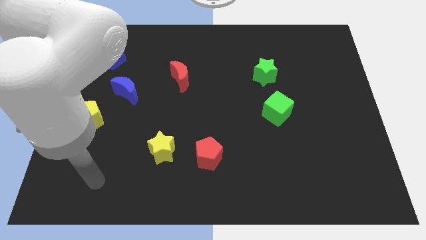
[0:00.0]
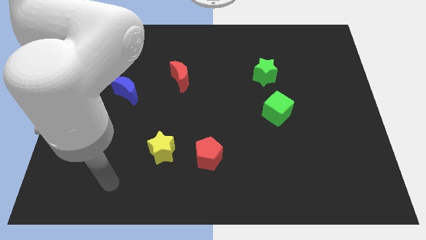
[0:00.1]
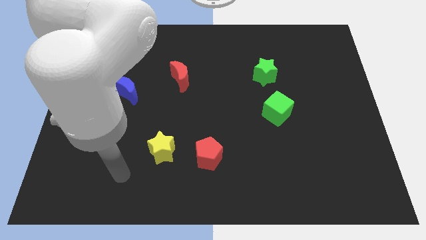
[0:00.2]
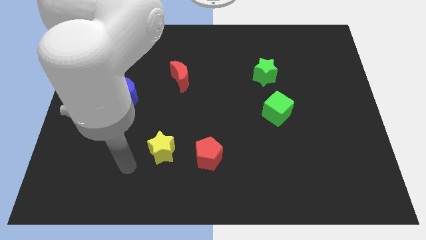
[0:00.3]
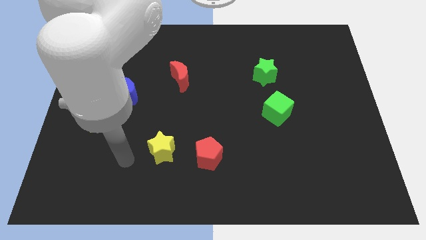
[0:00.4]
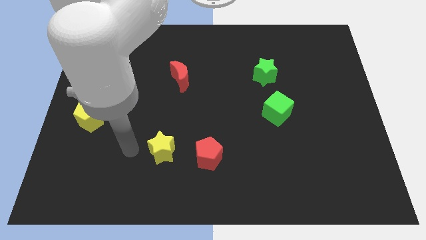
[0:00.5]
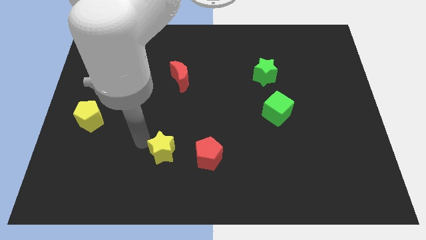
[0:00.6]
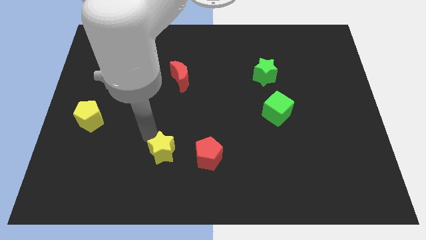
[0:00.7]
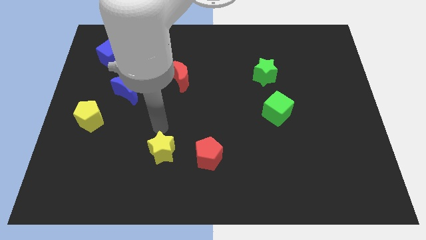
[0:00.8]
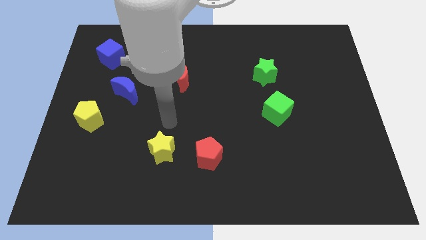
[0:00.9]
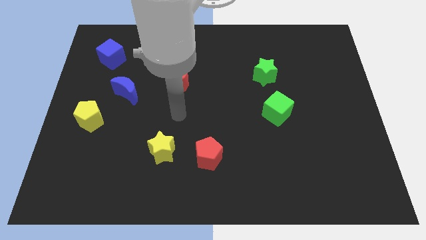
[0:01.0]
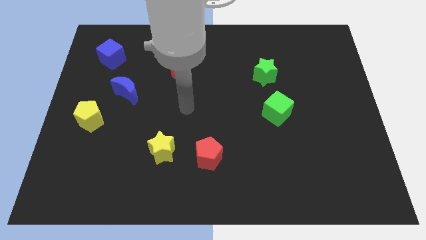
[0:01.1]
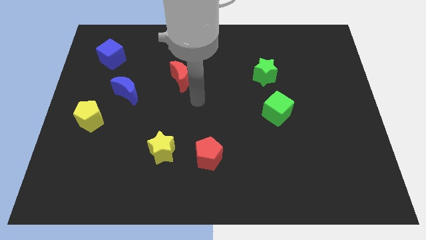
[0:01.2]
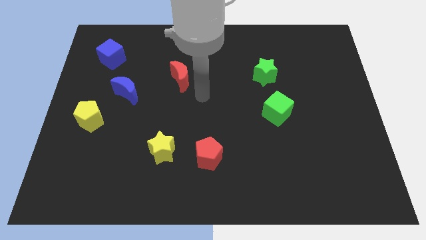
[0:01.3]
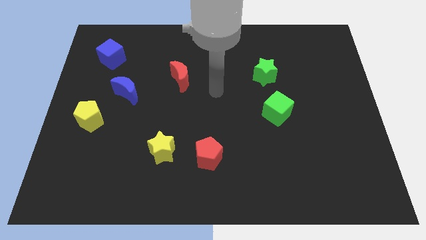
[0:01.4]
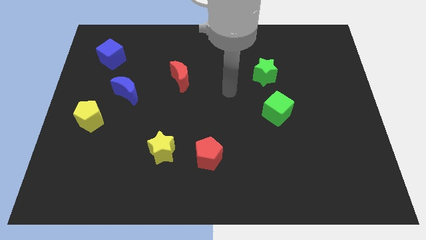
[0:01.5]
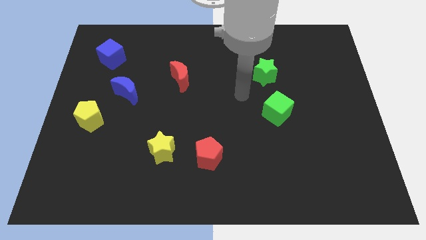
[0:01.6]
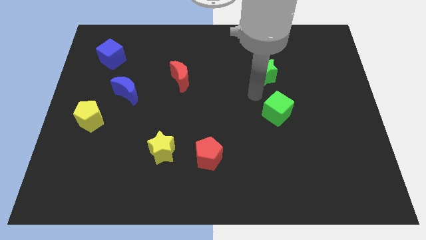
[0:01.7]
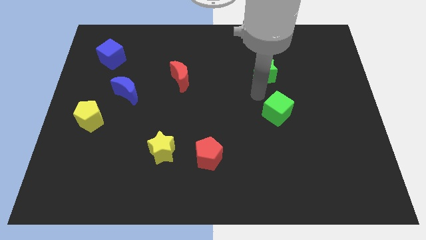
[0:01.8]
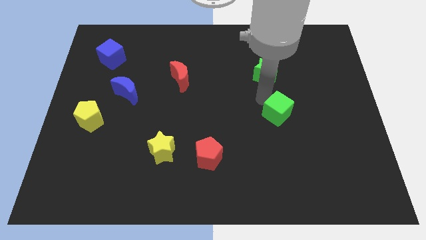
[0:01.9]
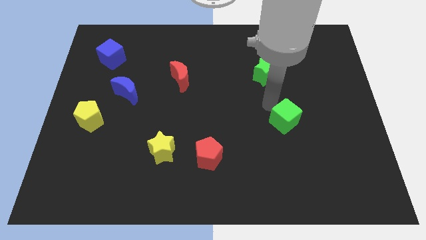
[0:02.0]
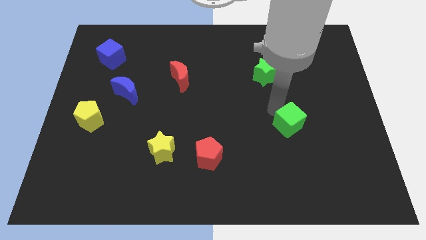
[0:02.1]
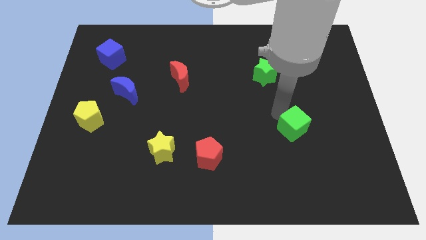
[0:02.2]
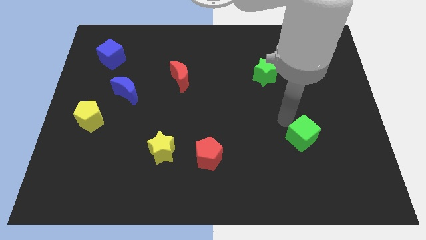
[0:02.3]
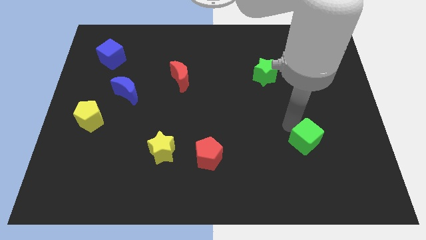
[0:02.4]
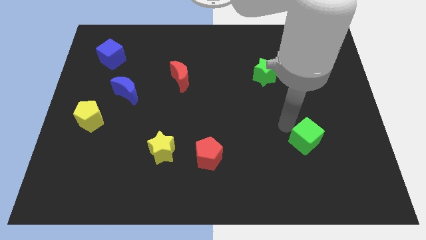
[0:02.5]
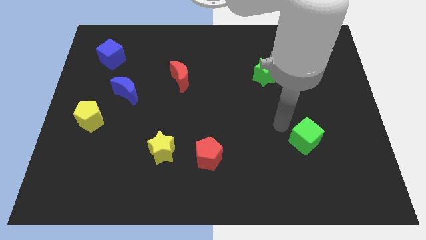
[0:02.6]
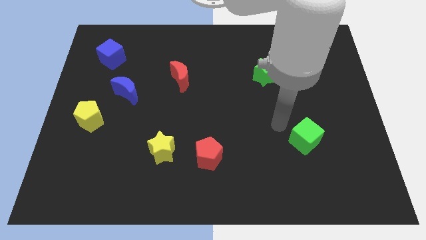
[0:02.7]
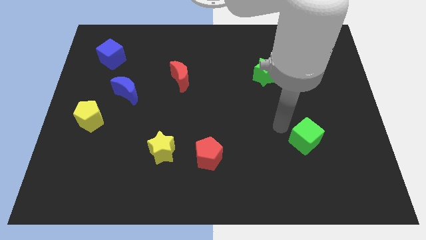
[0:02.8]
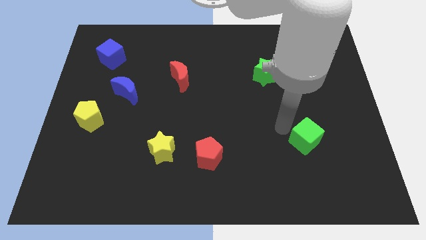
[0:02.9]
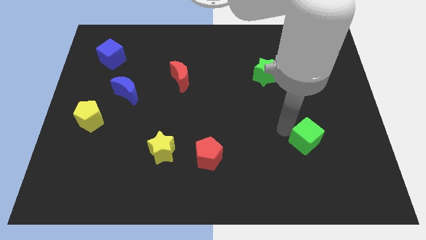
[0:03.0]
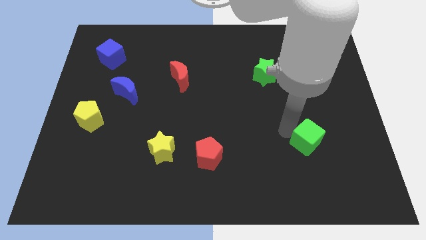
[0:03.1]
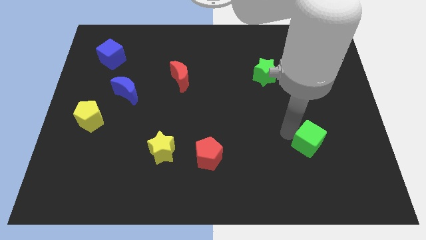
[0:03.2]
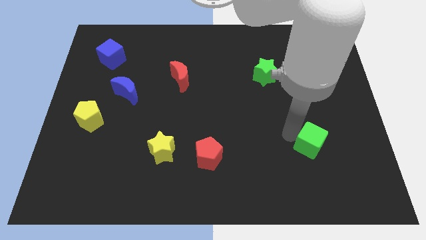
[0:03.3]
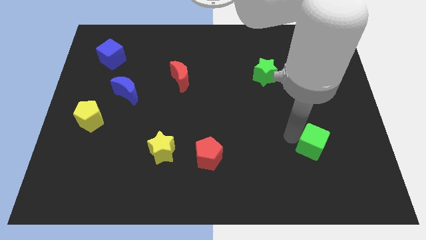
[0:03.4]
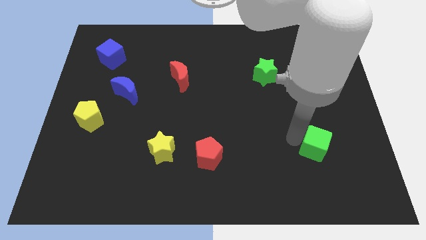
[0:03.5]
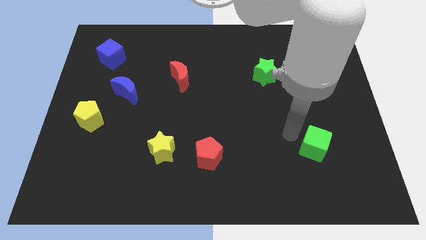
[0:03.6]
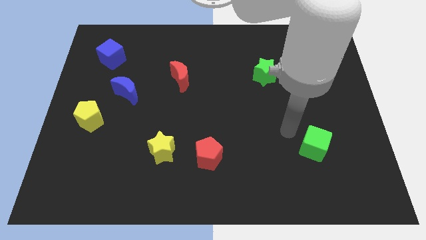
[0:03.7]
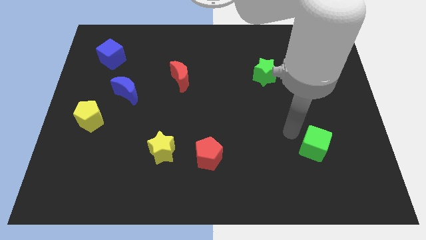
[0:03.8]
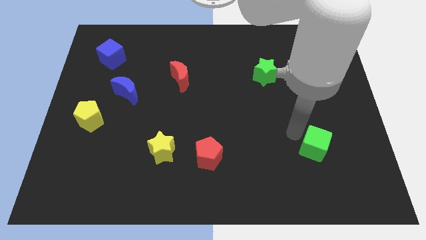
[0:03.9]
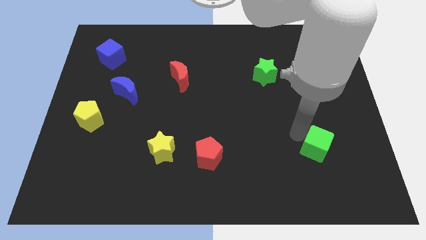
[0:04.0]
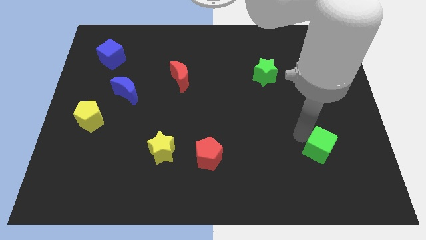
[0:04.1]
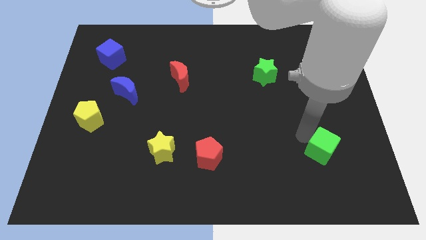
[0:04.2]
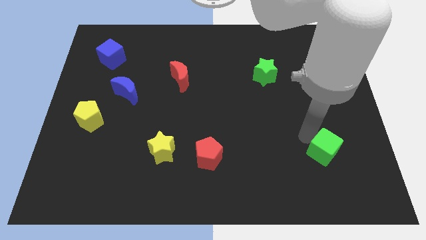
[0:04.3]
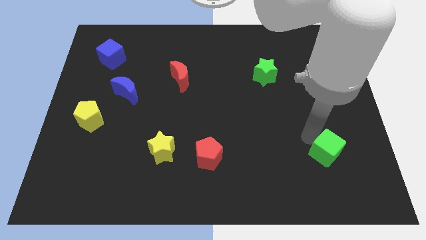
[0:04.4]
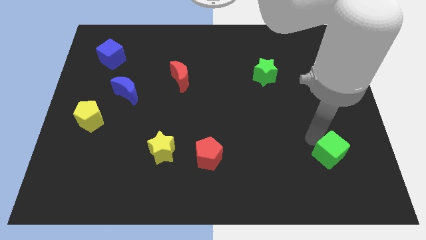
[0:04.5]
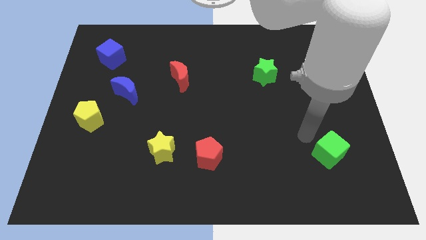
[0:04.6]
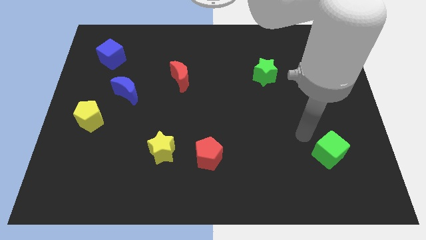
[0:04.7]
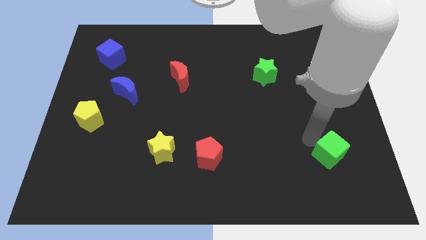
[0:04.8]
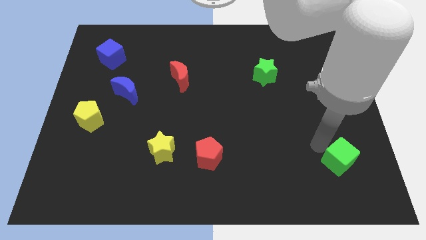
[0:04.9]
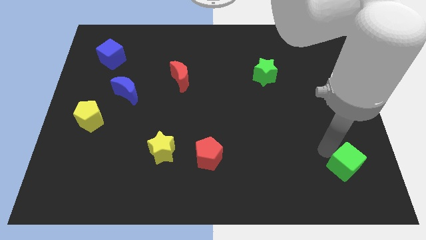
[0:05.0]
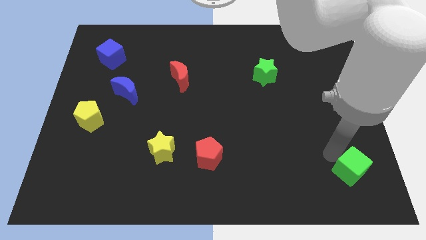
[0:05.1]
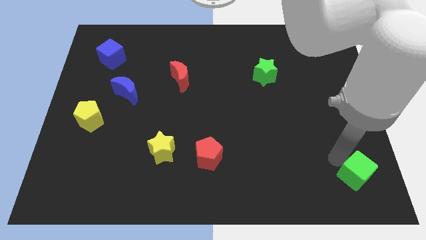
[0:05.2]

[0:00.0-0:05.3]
push the green cube to the bottom right

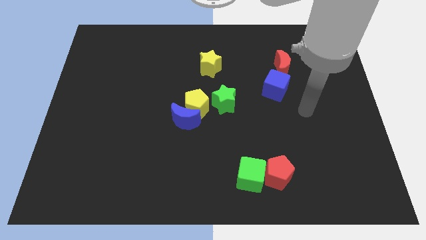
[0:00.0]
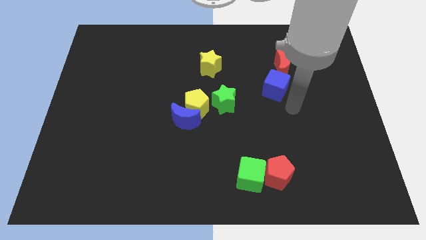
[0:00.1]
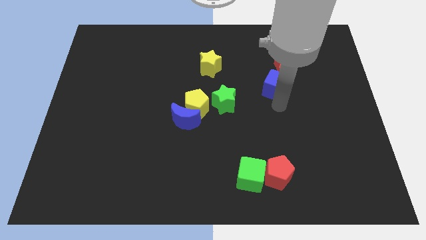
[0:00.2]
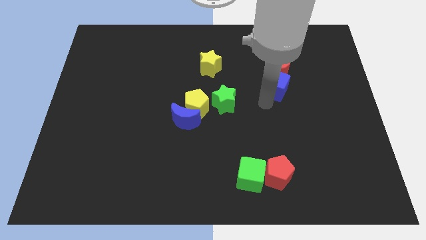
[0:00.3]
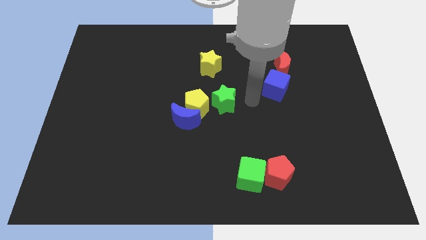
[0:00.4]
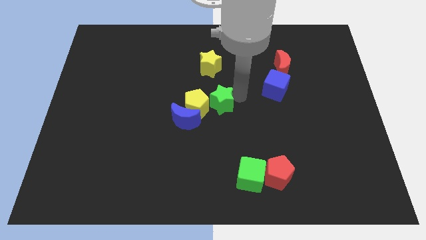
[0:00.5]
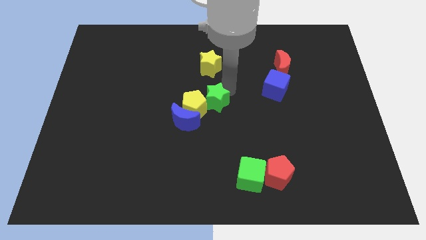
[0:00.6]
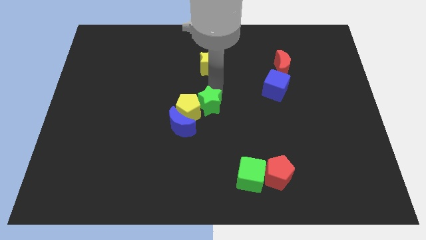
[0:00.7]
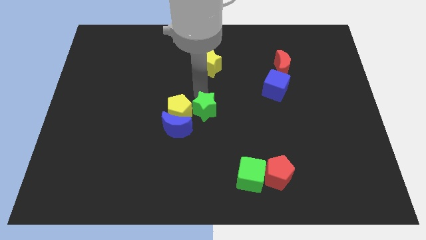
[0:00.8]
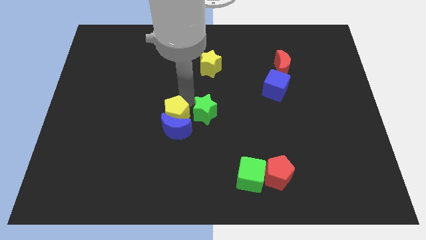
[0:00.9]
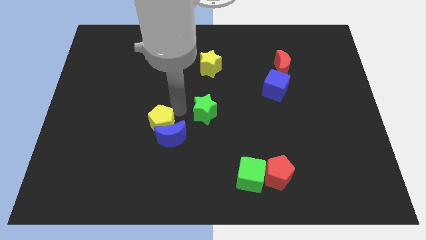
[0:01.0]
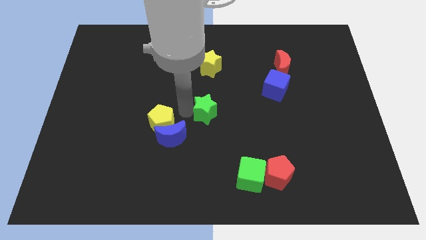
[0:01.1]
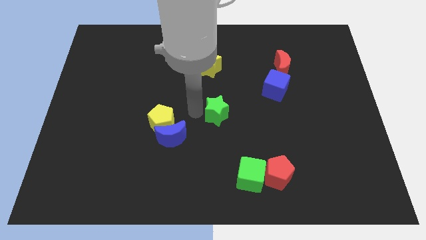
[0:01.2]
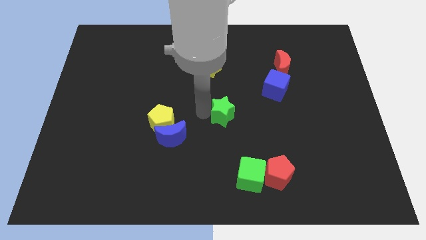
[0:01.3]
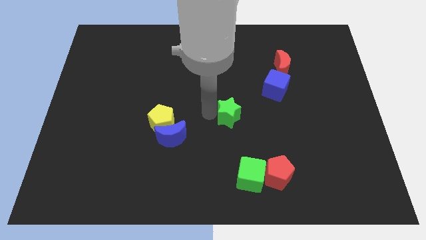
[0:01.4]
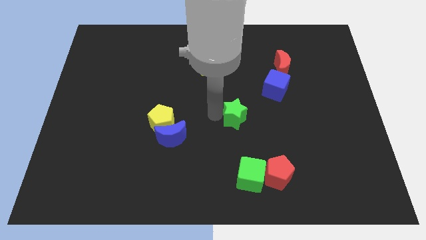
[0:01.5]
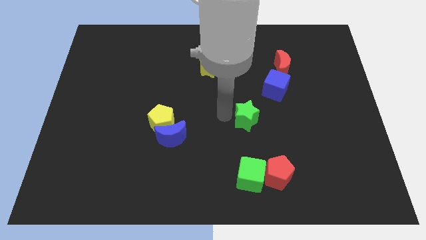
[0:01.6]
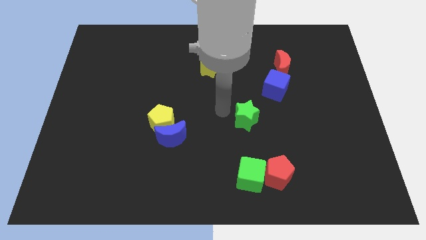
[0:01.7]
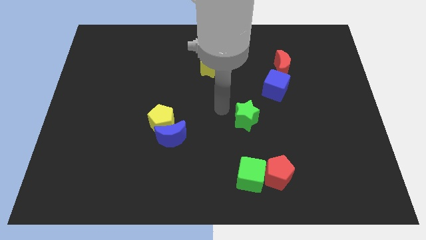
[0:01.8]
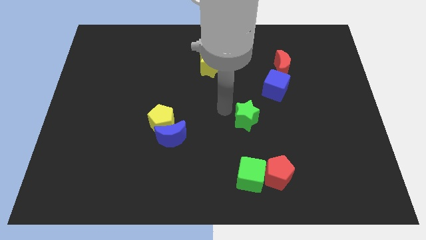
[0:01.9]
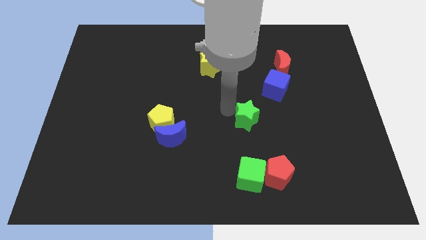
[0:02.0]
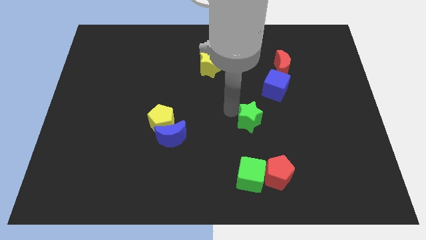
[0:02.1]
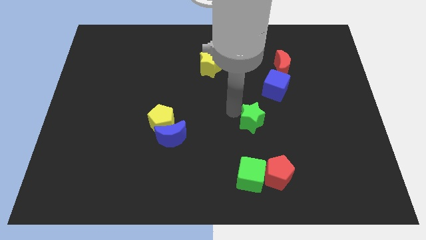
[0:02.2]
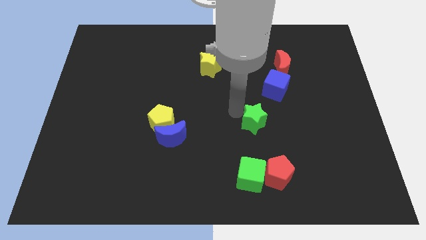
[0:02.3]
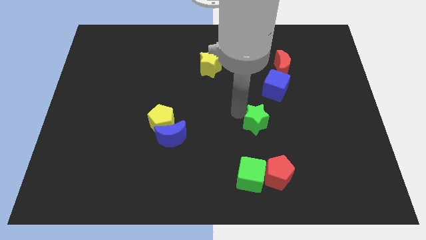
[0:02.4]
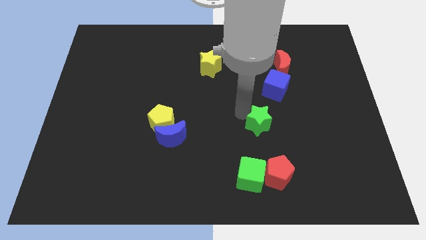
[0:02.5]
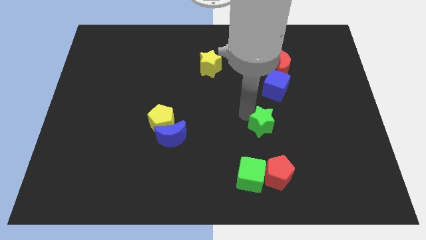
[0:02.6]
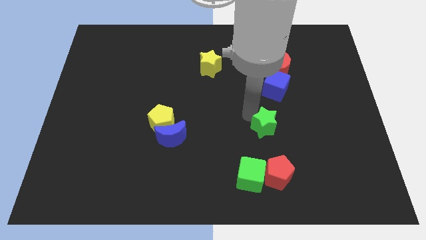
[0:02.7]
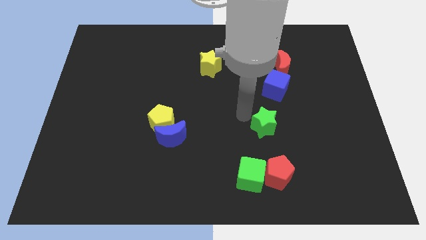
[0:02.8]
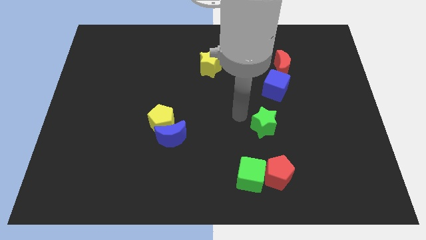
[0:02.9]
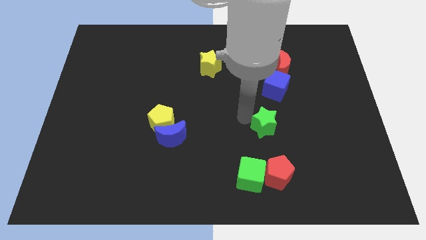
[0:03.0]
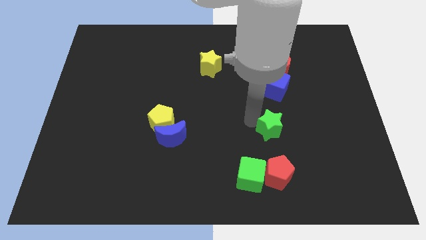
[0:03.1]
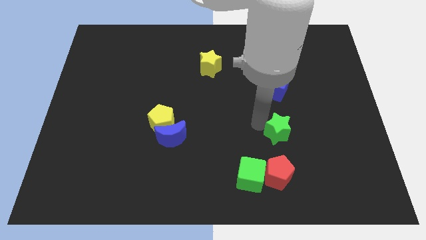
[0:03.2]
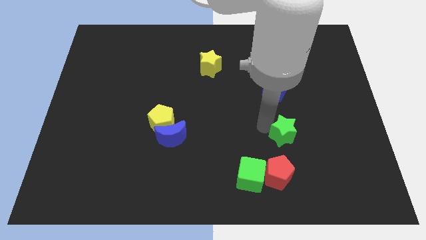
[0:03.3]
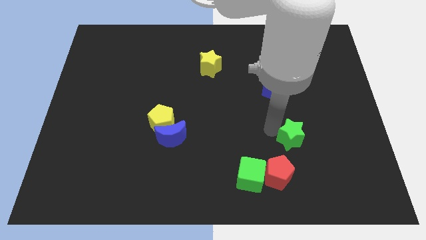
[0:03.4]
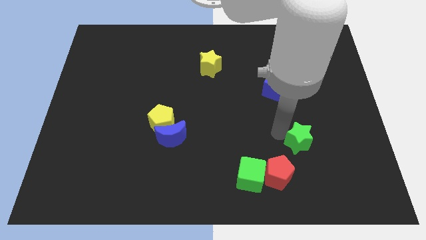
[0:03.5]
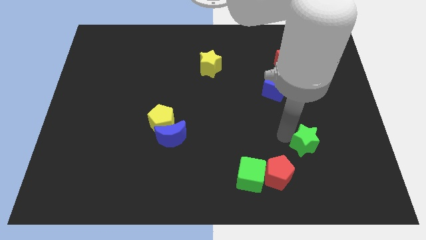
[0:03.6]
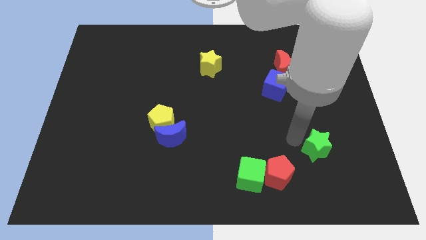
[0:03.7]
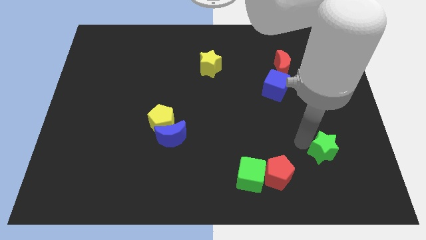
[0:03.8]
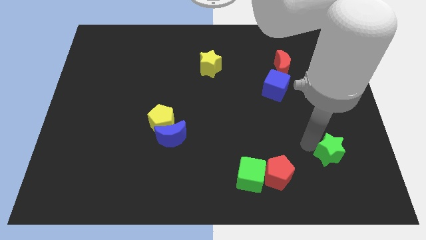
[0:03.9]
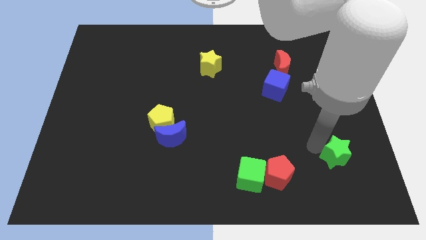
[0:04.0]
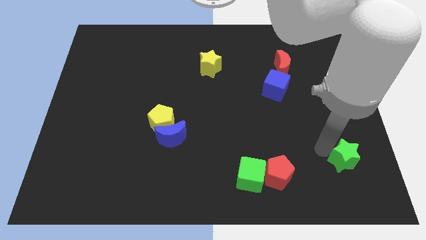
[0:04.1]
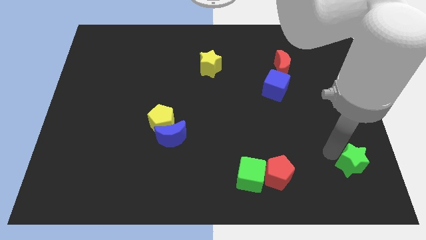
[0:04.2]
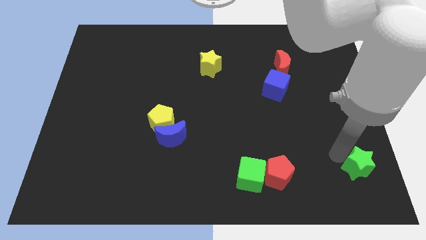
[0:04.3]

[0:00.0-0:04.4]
slide the green star to the lower right corner
